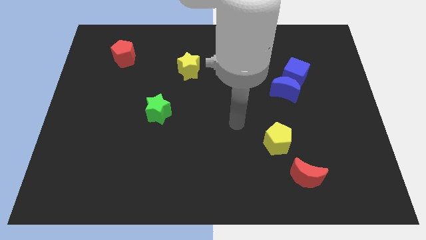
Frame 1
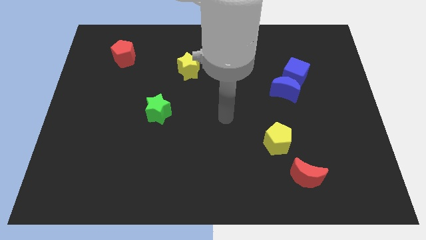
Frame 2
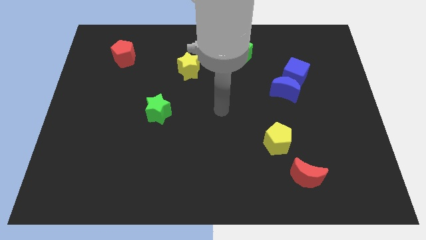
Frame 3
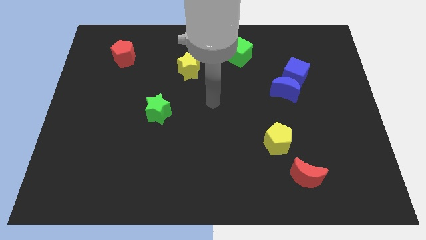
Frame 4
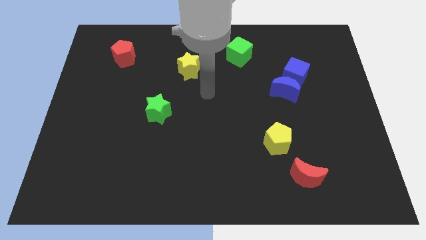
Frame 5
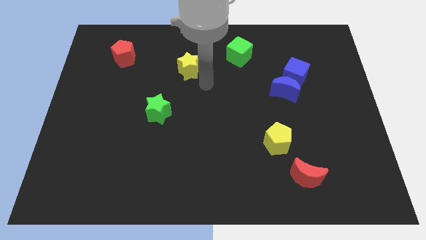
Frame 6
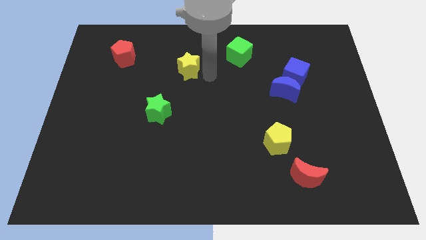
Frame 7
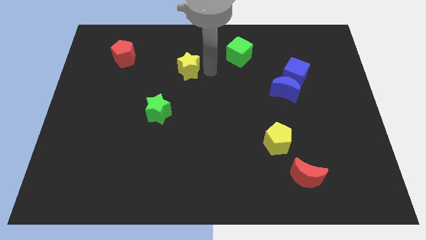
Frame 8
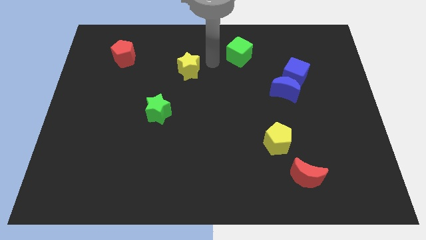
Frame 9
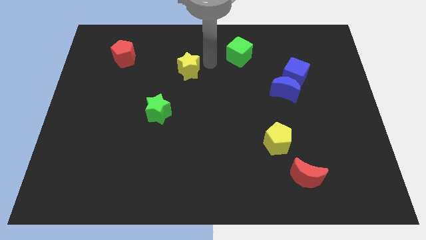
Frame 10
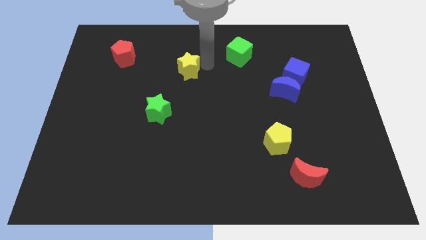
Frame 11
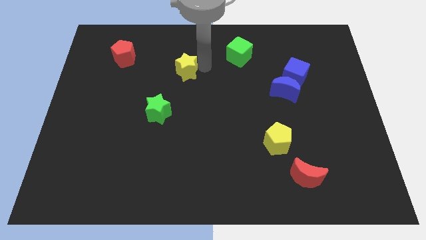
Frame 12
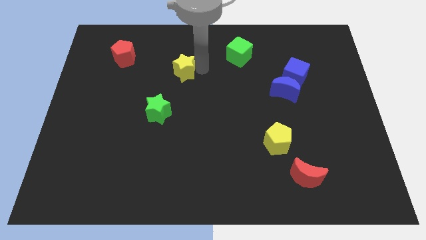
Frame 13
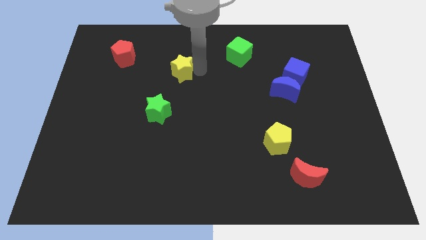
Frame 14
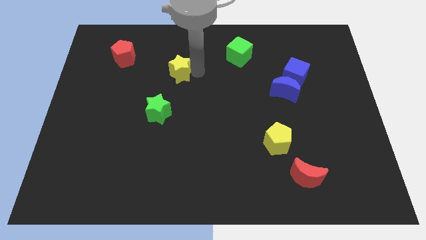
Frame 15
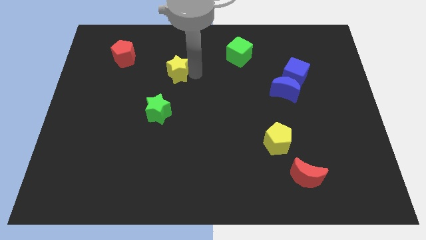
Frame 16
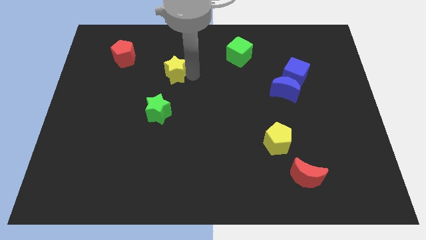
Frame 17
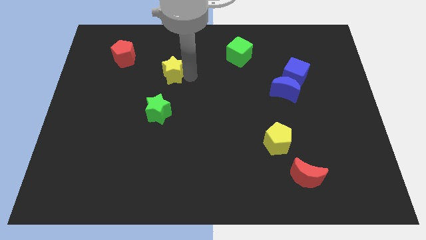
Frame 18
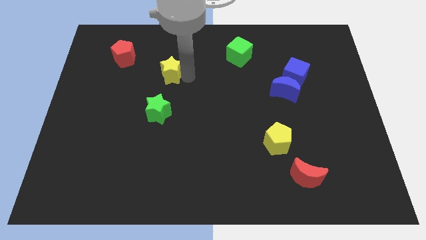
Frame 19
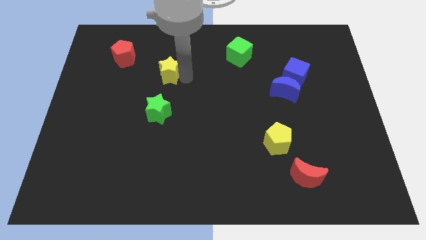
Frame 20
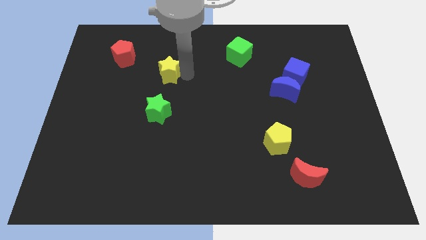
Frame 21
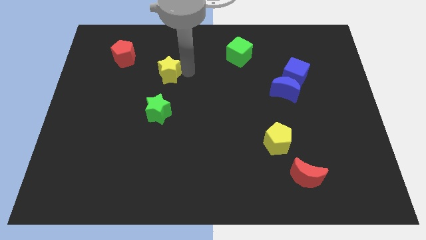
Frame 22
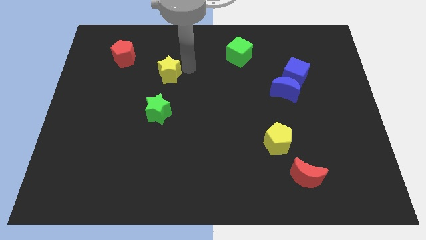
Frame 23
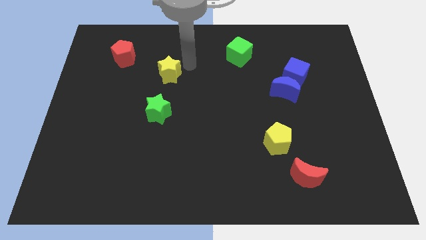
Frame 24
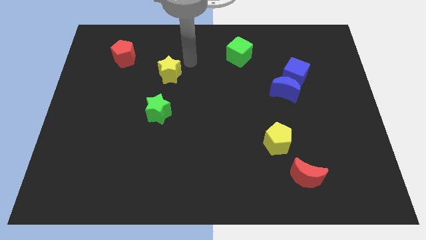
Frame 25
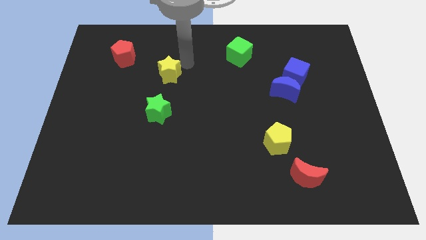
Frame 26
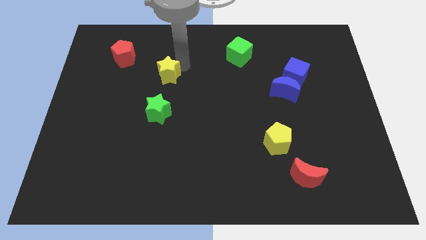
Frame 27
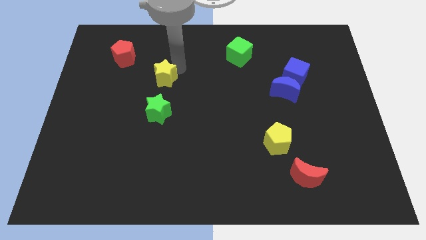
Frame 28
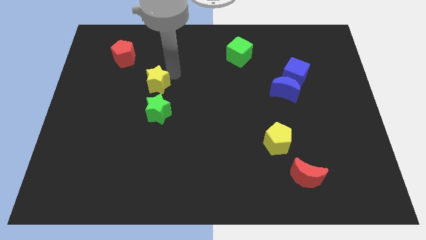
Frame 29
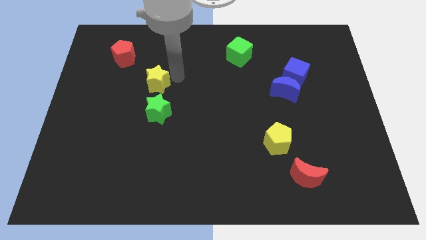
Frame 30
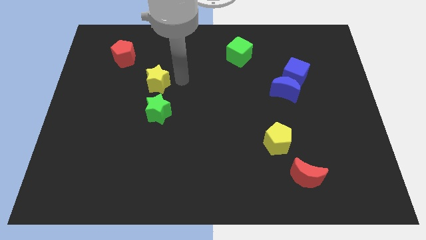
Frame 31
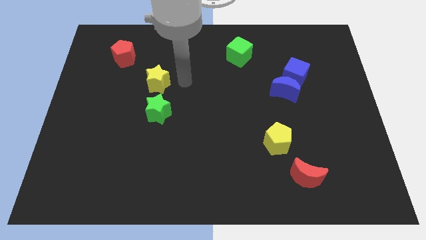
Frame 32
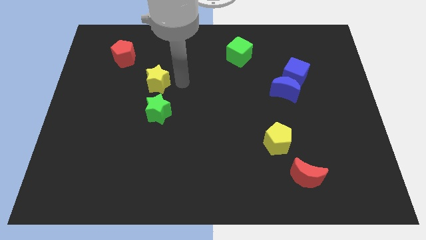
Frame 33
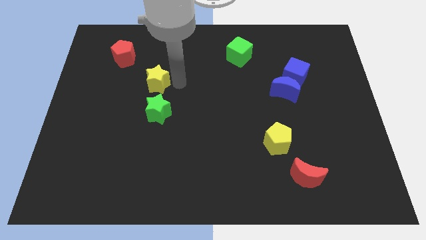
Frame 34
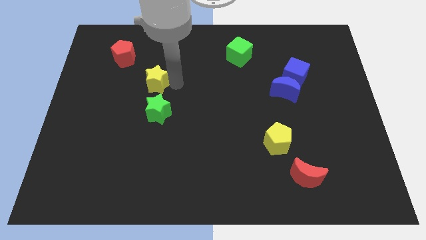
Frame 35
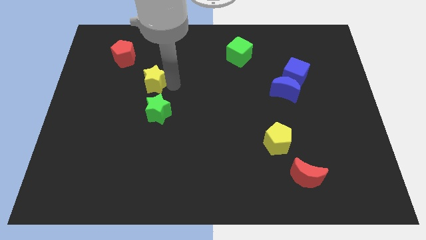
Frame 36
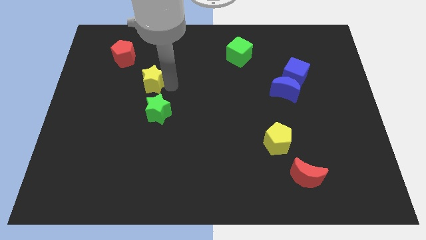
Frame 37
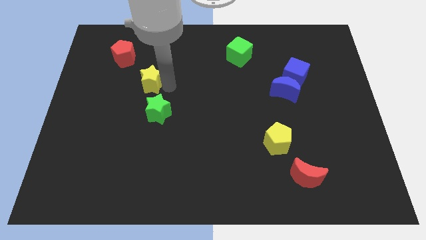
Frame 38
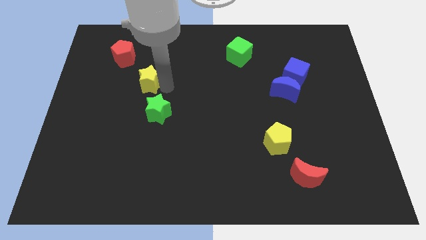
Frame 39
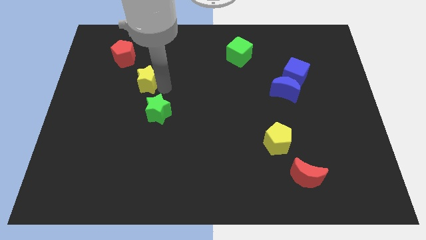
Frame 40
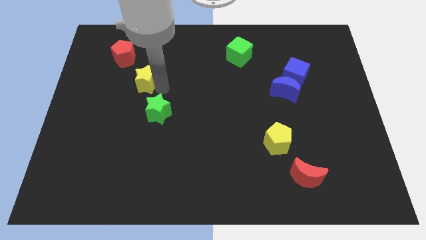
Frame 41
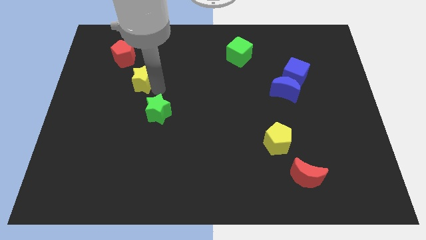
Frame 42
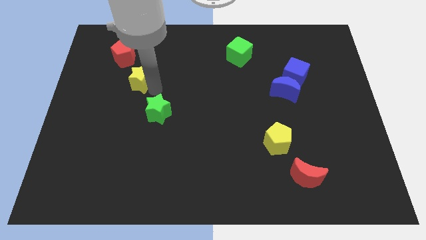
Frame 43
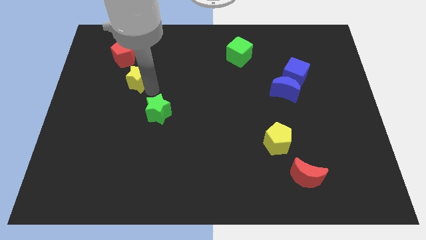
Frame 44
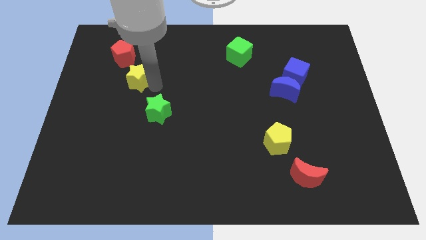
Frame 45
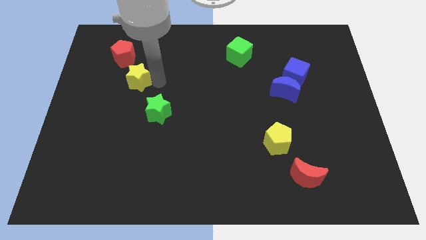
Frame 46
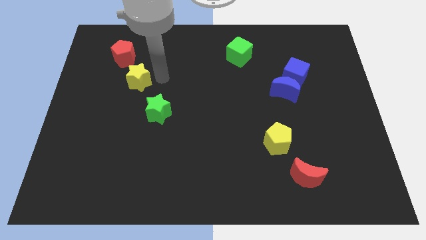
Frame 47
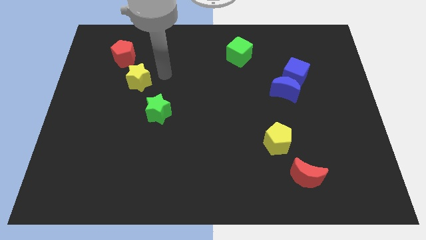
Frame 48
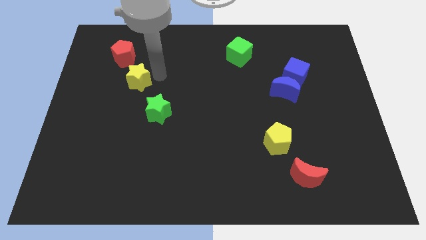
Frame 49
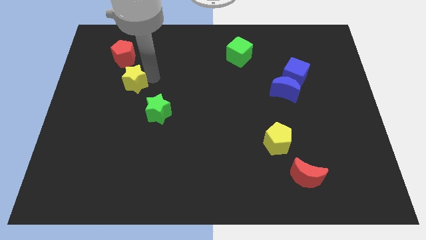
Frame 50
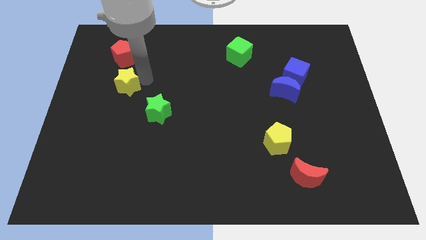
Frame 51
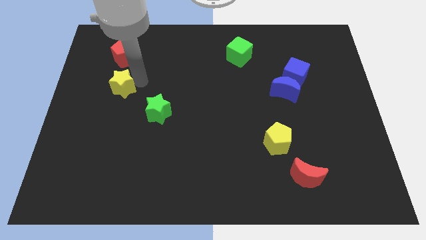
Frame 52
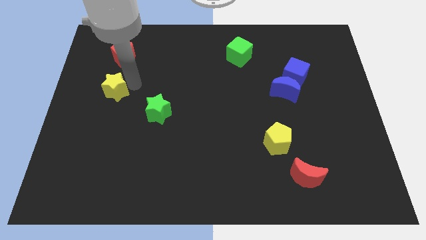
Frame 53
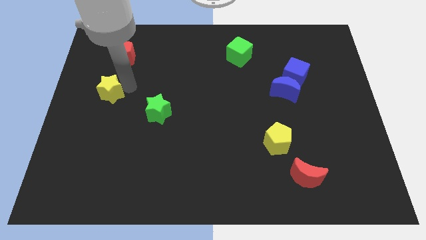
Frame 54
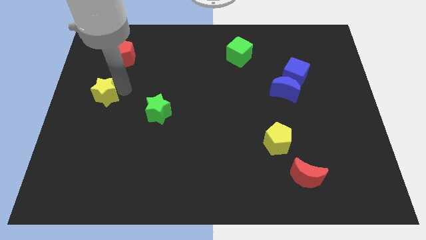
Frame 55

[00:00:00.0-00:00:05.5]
push the yellow star to the left side

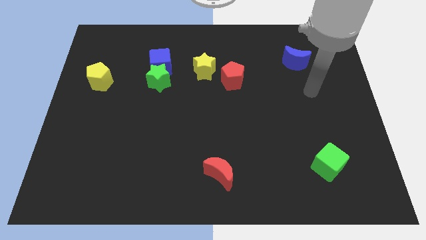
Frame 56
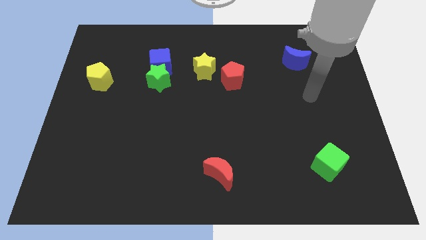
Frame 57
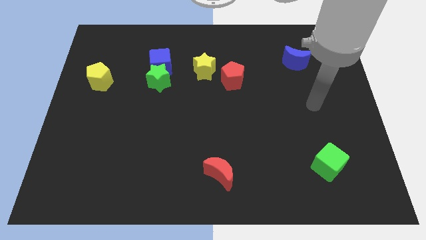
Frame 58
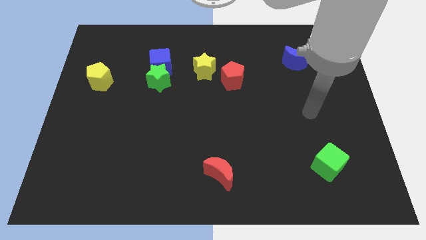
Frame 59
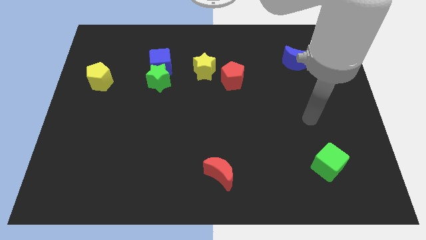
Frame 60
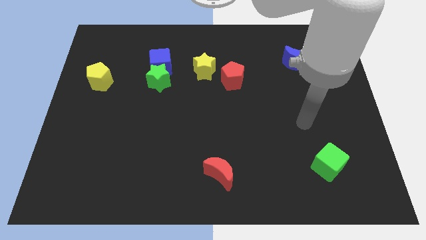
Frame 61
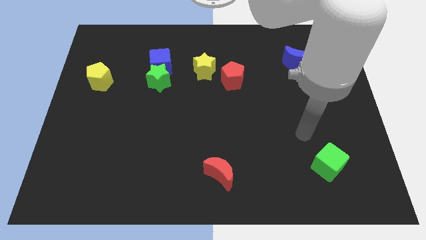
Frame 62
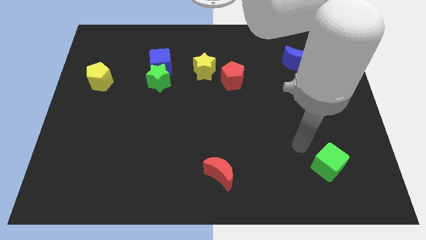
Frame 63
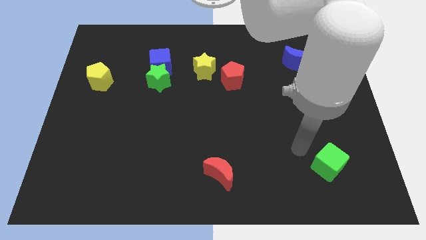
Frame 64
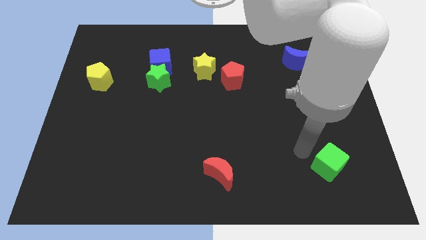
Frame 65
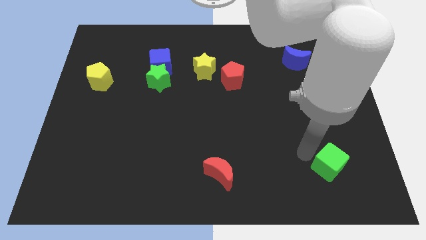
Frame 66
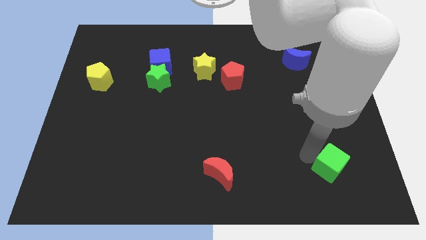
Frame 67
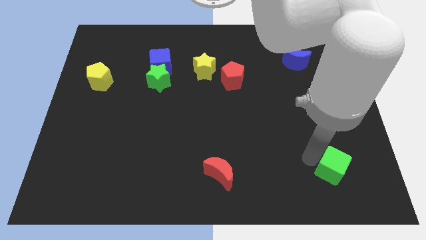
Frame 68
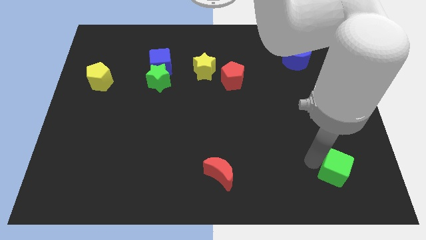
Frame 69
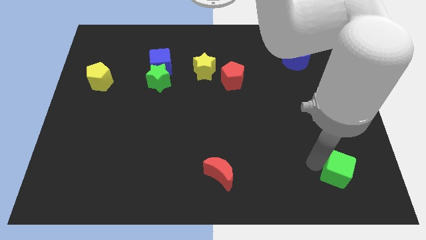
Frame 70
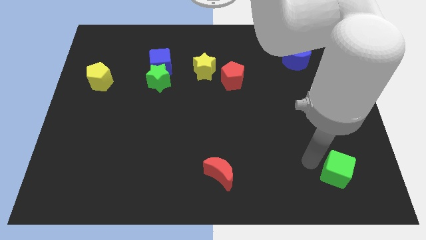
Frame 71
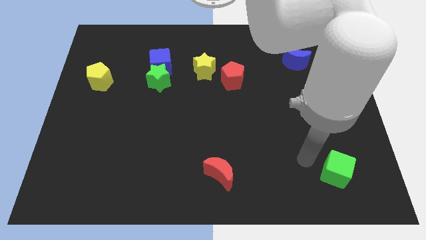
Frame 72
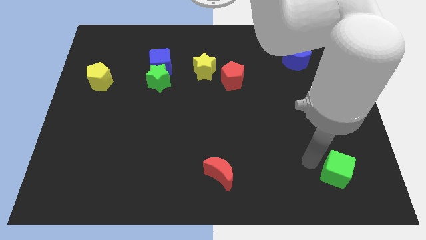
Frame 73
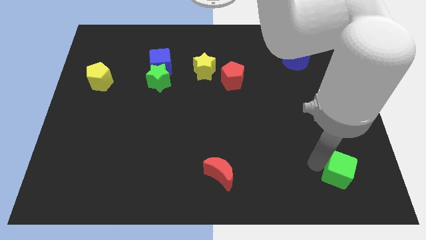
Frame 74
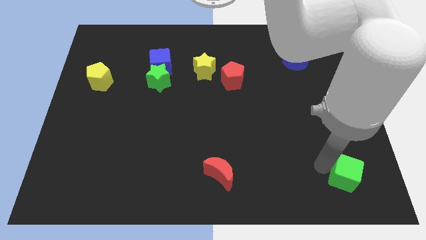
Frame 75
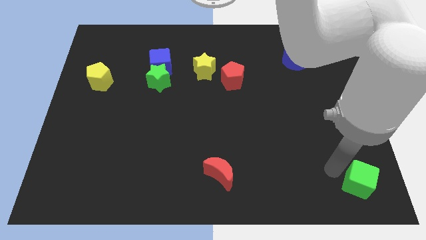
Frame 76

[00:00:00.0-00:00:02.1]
put the green cube to the bottom right
